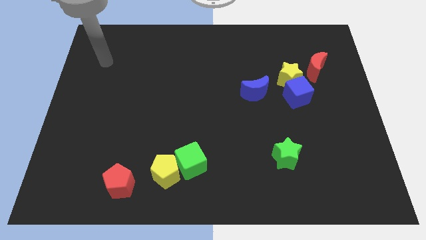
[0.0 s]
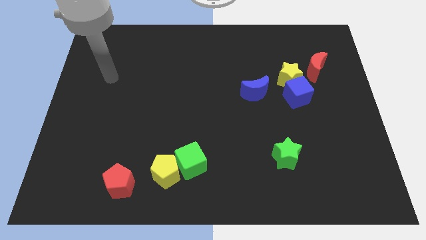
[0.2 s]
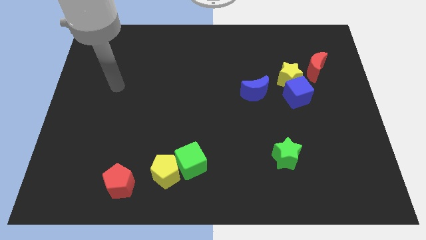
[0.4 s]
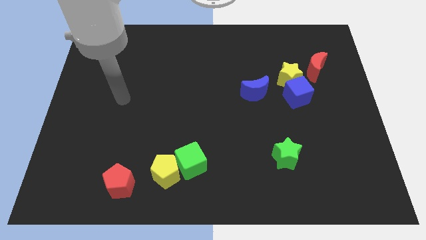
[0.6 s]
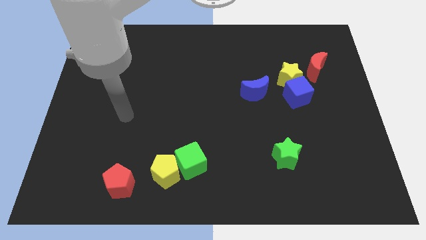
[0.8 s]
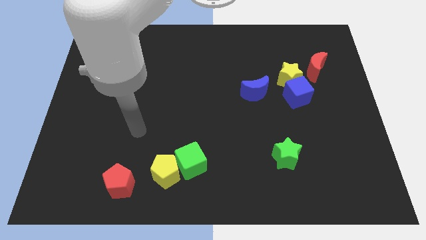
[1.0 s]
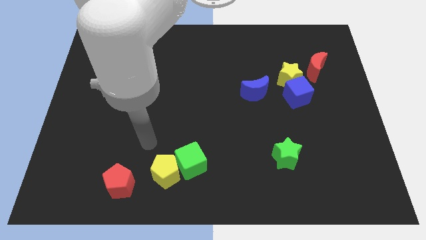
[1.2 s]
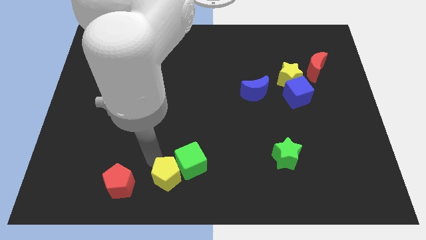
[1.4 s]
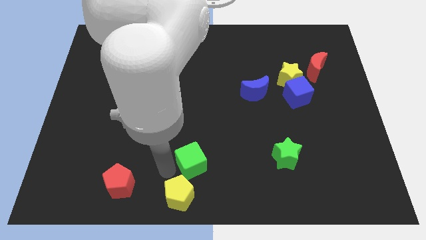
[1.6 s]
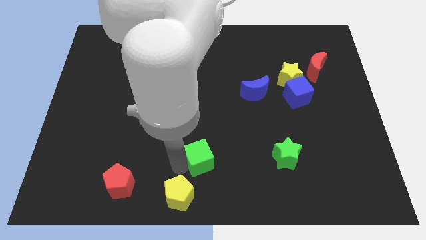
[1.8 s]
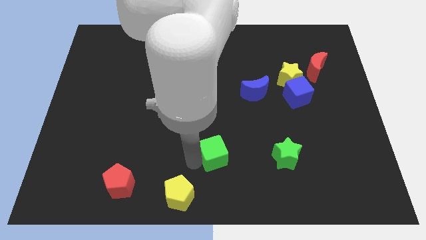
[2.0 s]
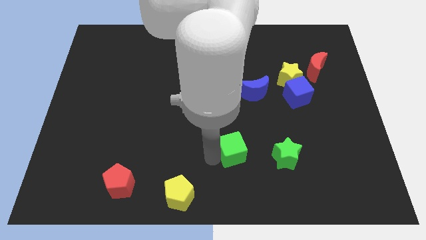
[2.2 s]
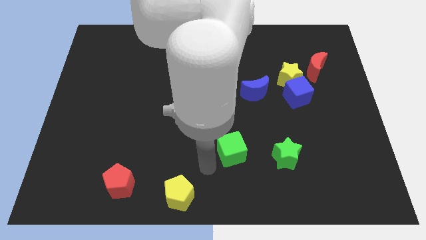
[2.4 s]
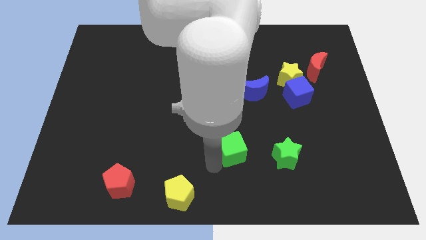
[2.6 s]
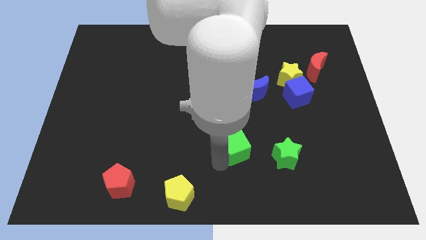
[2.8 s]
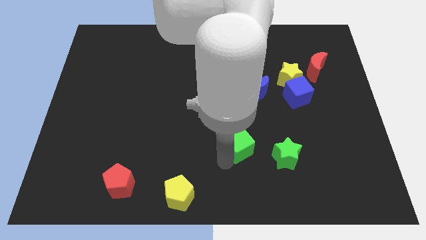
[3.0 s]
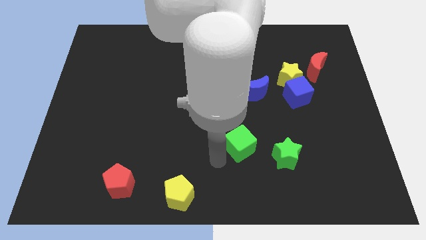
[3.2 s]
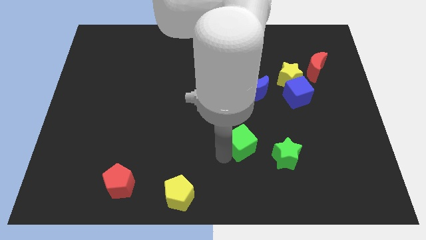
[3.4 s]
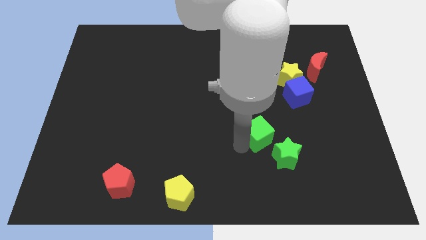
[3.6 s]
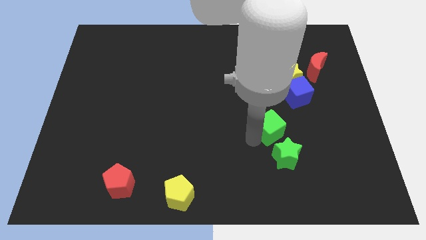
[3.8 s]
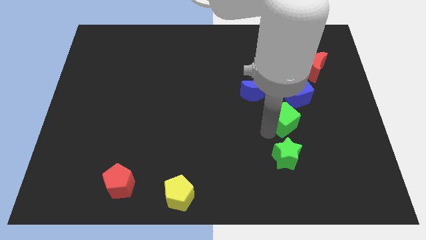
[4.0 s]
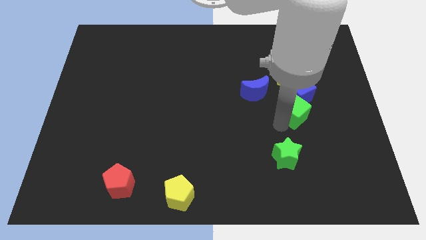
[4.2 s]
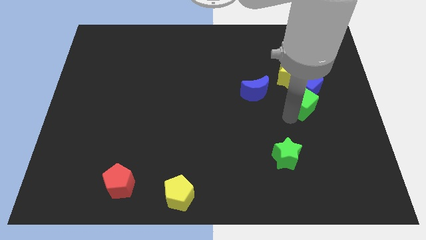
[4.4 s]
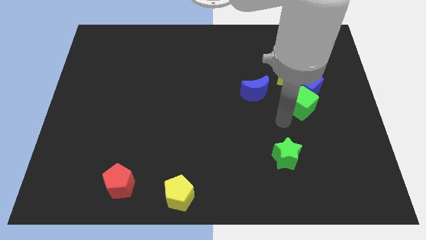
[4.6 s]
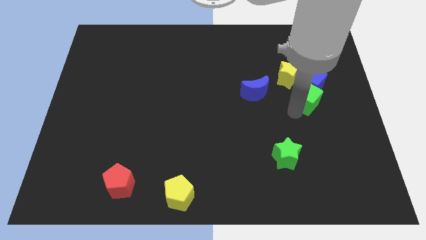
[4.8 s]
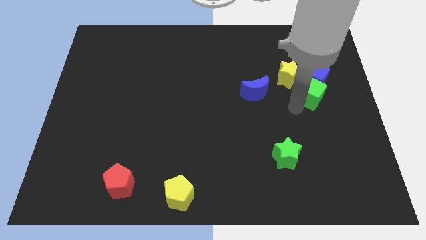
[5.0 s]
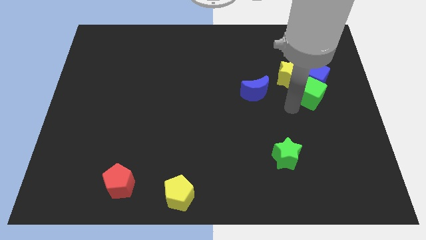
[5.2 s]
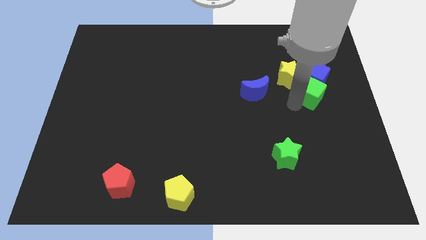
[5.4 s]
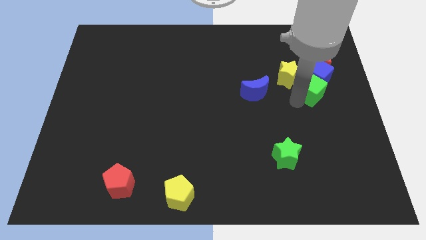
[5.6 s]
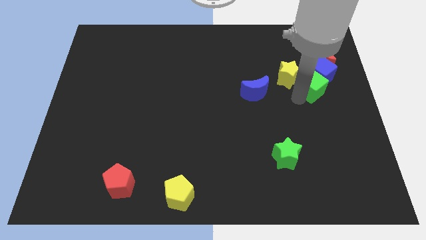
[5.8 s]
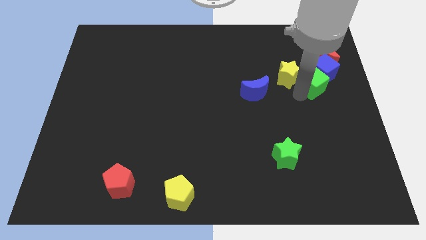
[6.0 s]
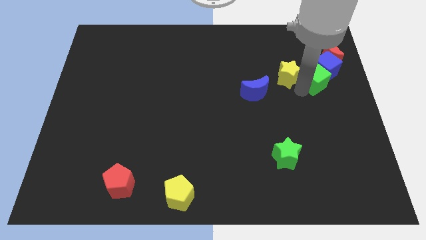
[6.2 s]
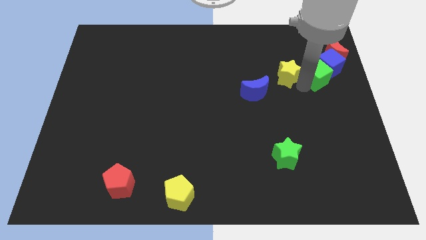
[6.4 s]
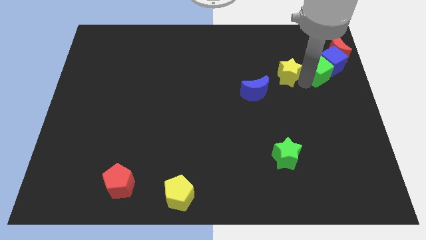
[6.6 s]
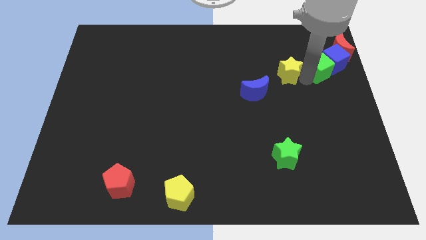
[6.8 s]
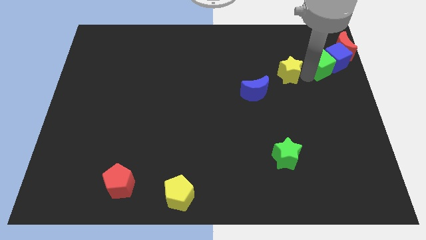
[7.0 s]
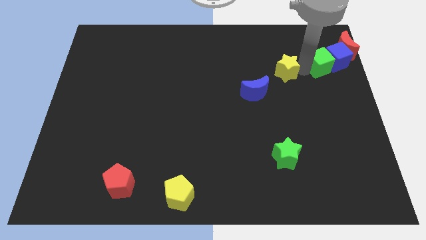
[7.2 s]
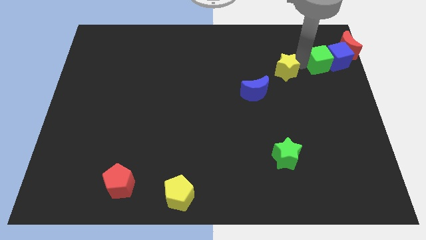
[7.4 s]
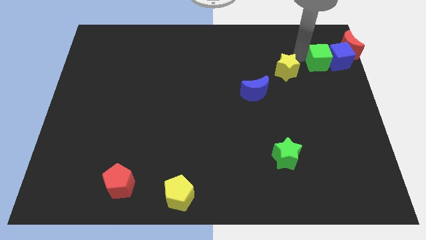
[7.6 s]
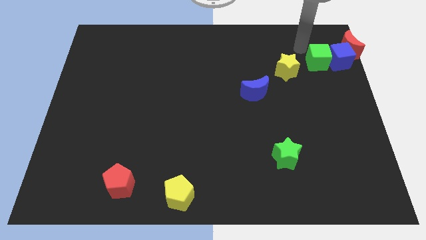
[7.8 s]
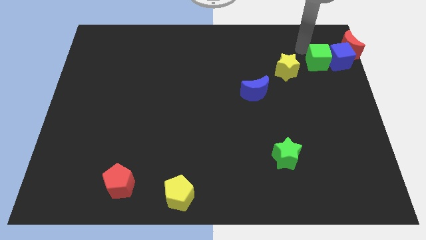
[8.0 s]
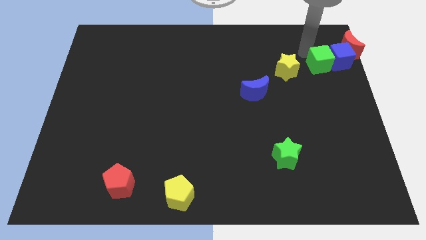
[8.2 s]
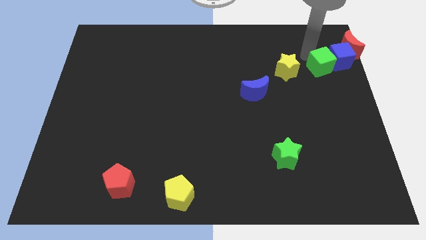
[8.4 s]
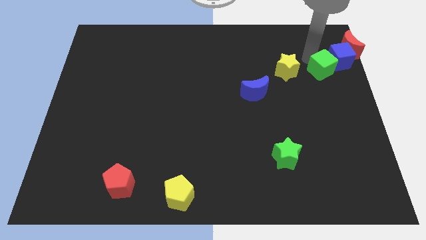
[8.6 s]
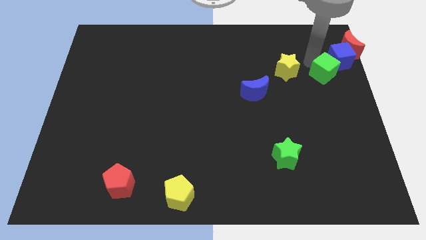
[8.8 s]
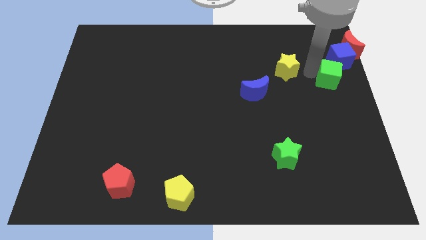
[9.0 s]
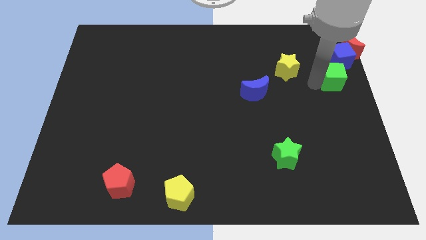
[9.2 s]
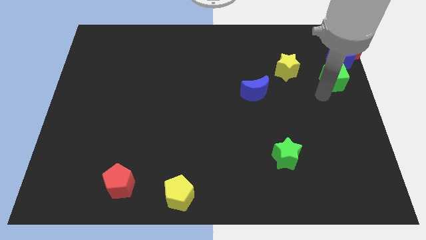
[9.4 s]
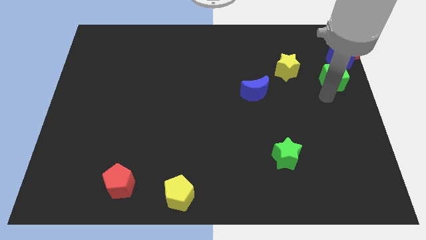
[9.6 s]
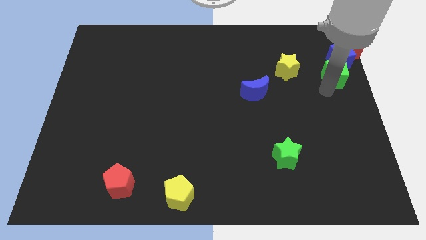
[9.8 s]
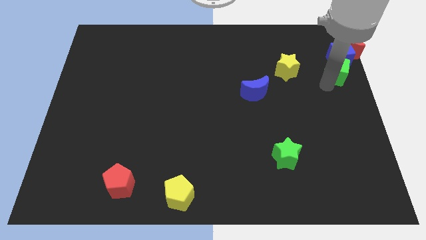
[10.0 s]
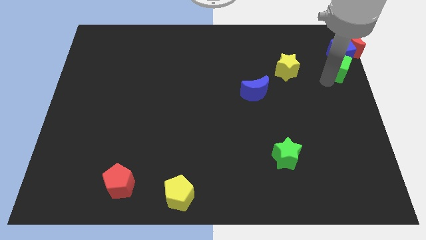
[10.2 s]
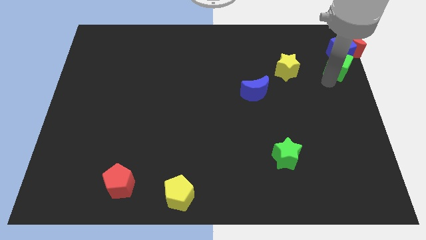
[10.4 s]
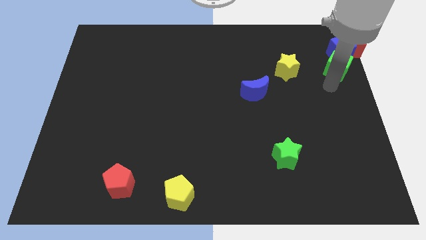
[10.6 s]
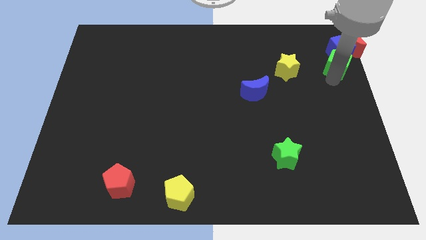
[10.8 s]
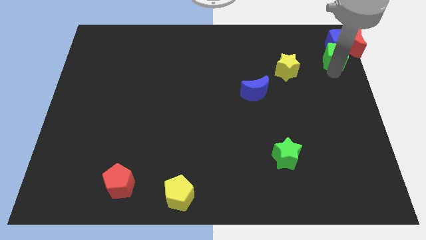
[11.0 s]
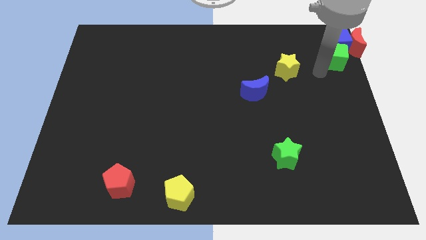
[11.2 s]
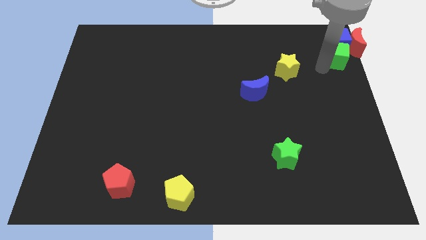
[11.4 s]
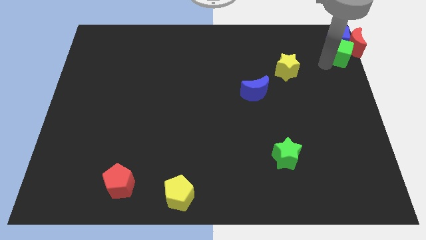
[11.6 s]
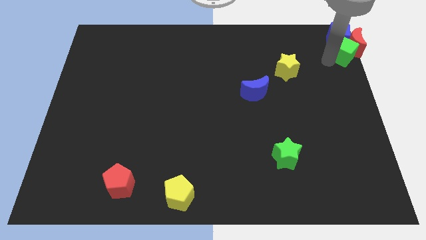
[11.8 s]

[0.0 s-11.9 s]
put the green cube to the top right corner
